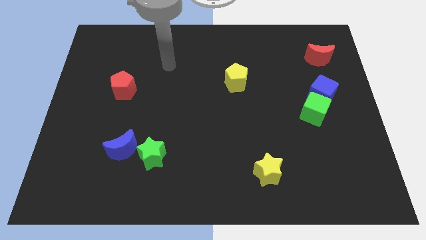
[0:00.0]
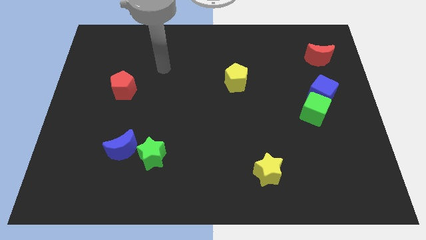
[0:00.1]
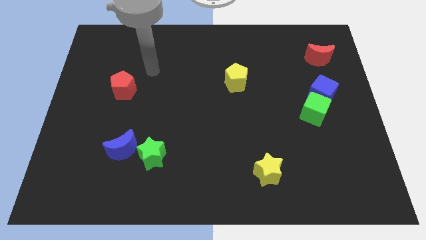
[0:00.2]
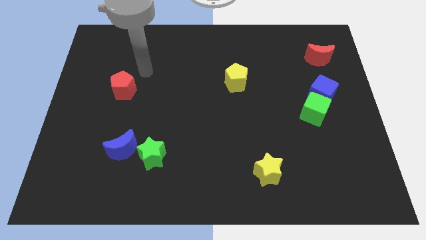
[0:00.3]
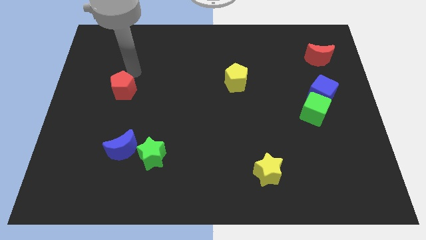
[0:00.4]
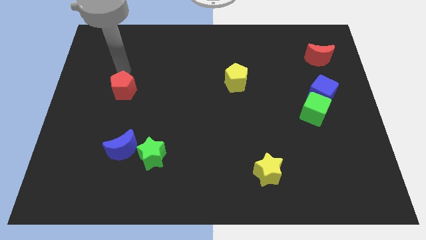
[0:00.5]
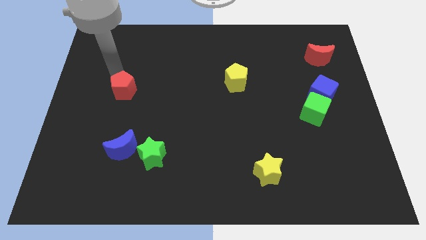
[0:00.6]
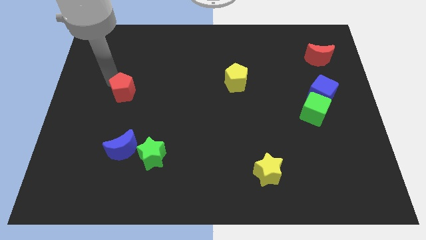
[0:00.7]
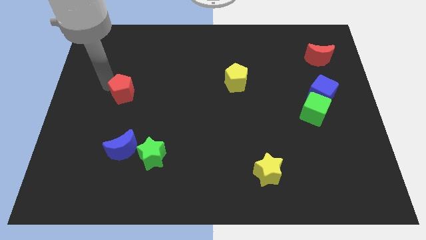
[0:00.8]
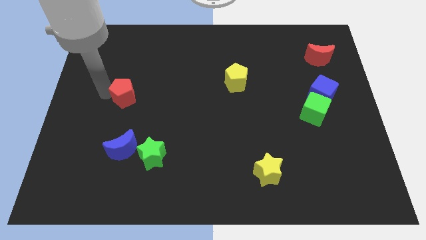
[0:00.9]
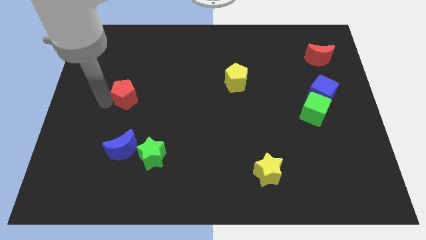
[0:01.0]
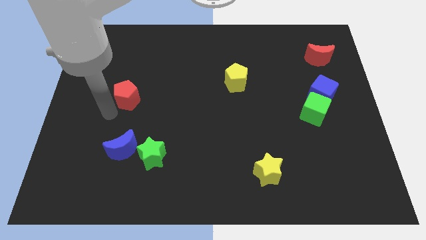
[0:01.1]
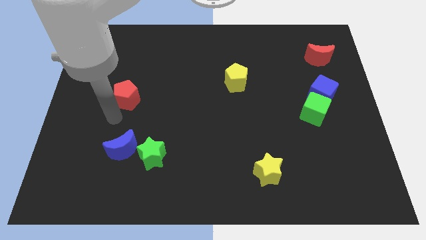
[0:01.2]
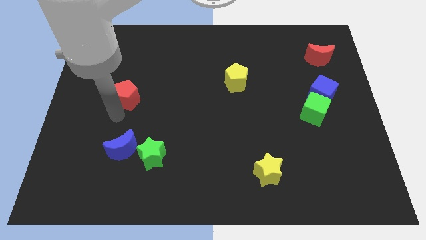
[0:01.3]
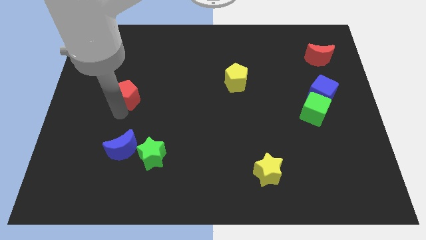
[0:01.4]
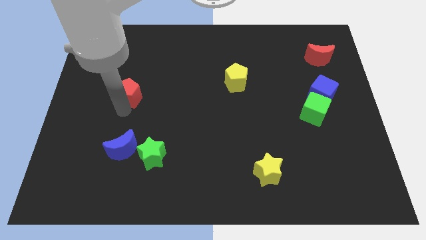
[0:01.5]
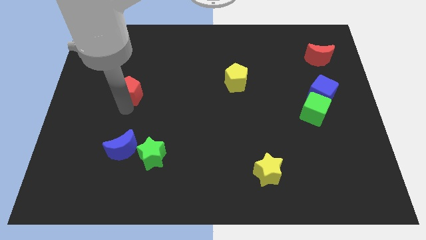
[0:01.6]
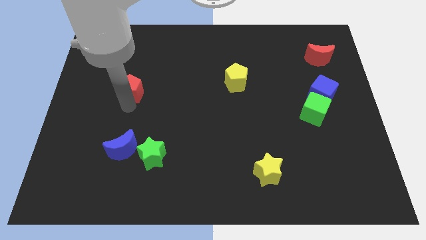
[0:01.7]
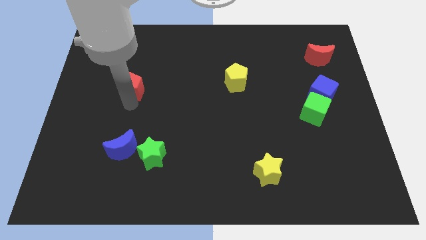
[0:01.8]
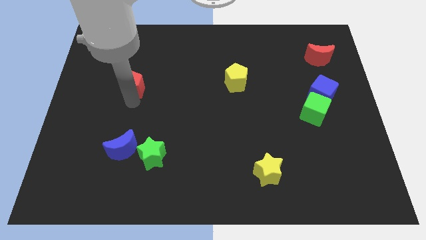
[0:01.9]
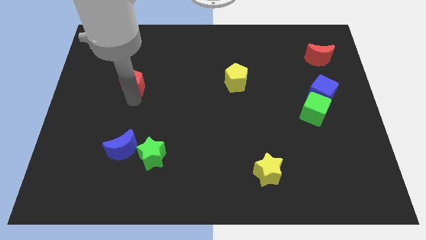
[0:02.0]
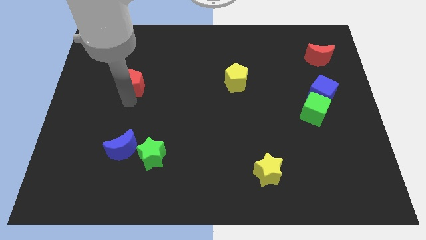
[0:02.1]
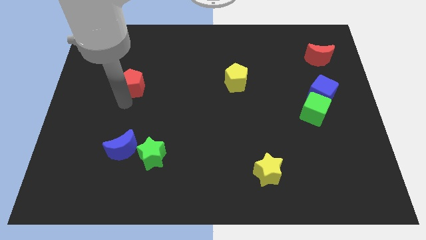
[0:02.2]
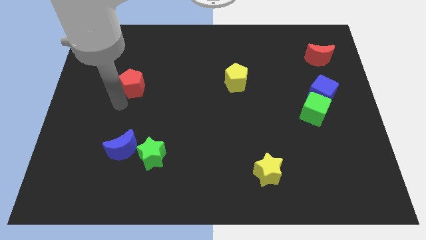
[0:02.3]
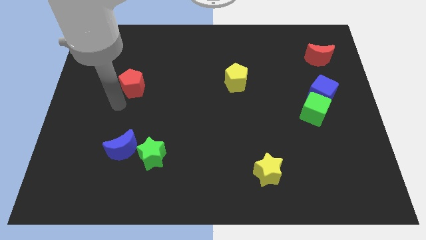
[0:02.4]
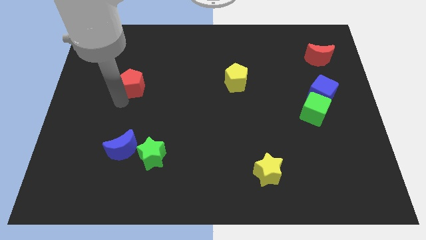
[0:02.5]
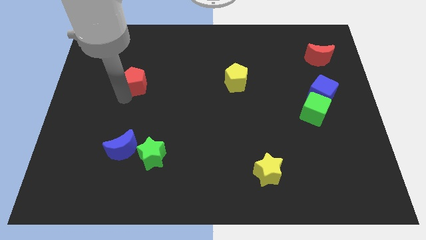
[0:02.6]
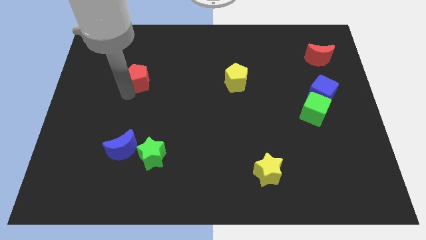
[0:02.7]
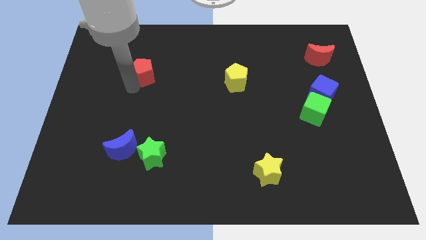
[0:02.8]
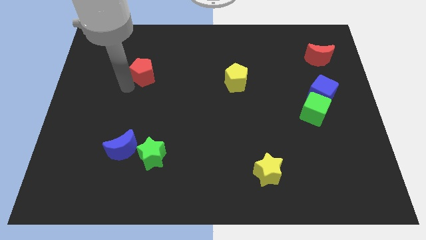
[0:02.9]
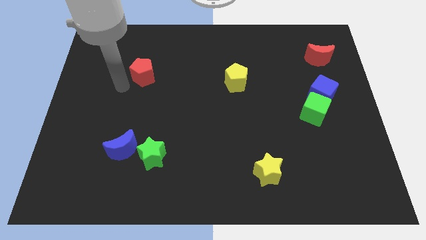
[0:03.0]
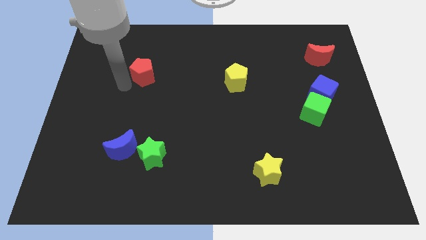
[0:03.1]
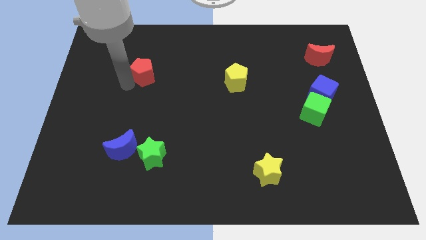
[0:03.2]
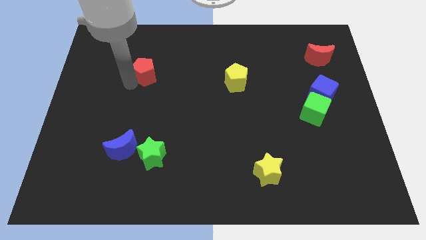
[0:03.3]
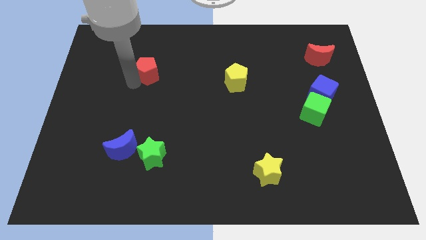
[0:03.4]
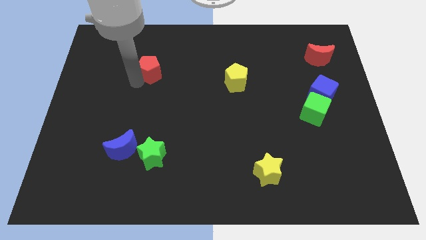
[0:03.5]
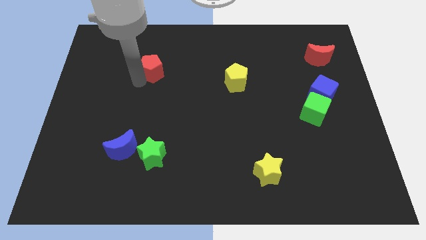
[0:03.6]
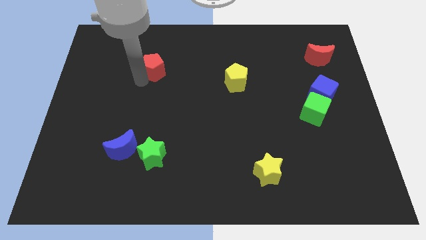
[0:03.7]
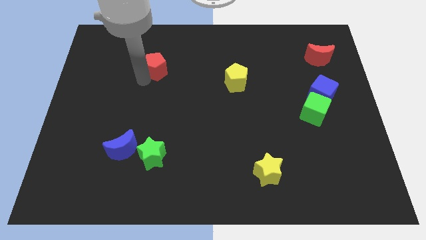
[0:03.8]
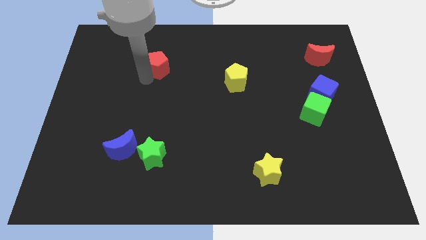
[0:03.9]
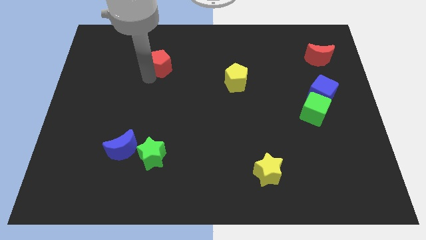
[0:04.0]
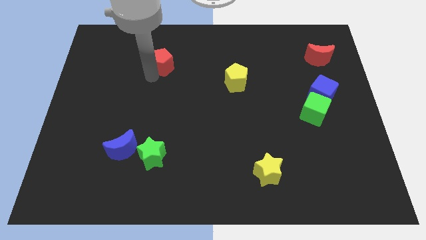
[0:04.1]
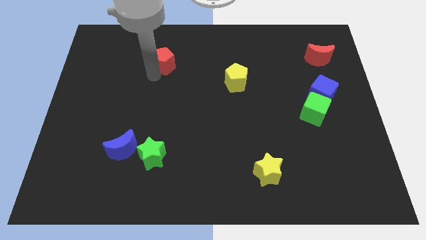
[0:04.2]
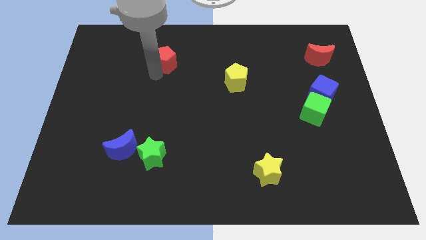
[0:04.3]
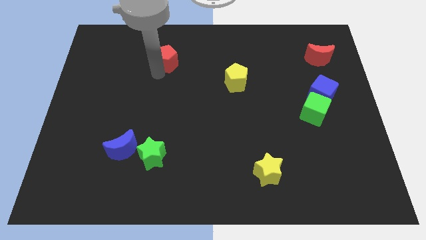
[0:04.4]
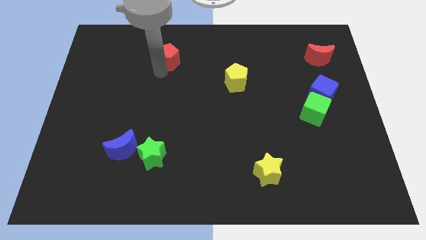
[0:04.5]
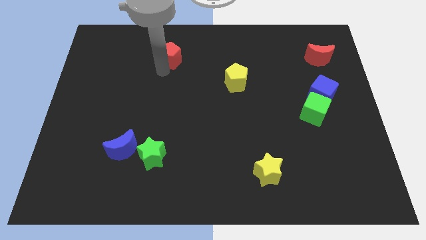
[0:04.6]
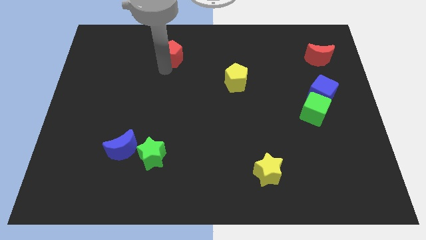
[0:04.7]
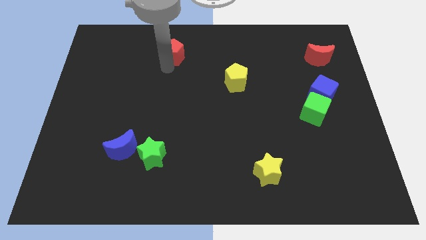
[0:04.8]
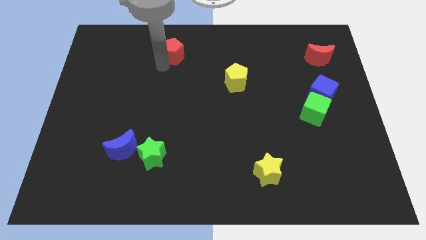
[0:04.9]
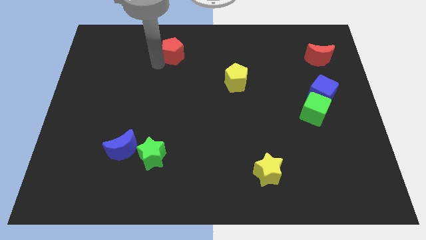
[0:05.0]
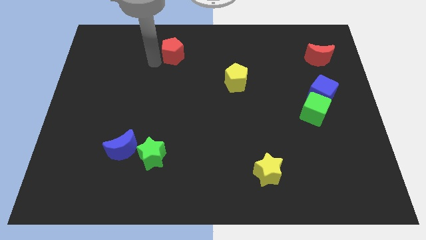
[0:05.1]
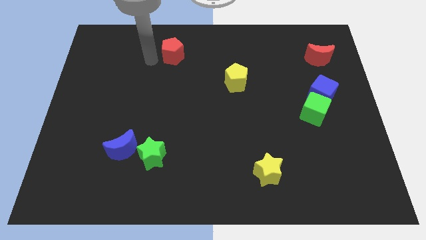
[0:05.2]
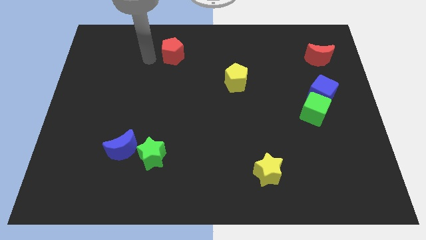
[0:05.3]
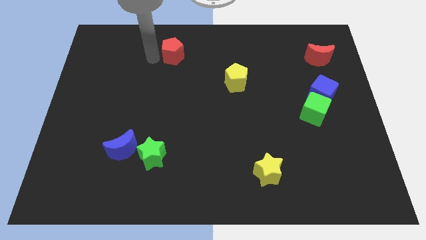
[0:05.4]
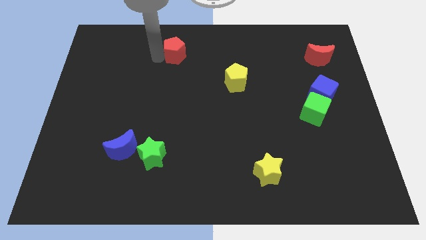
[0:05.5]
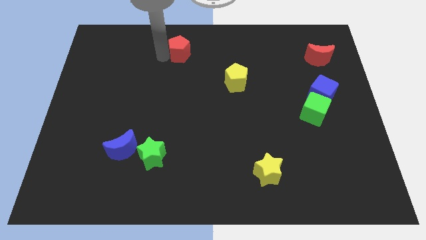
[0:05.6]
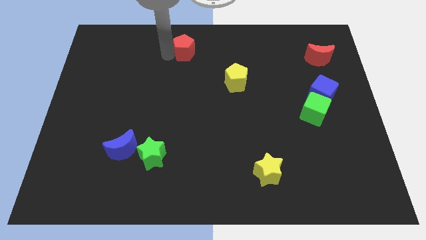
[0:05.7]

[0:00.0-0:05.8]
put the red pentagon to the towards your base

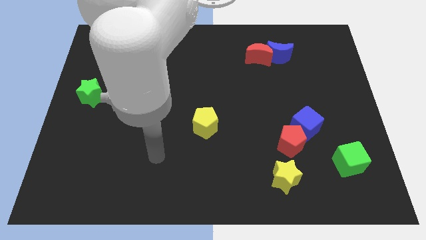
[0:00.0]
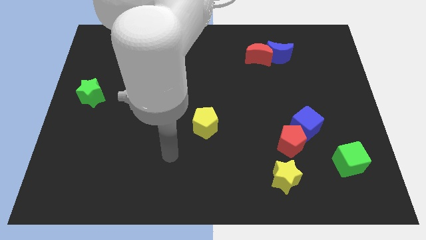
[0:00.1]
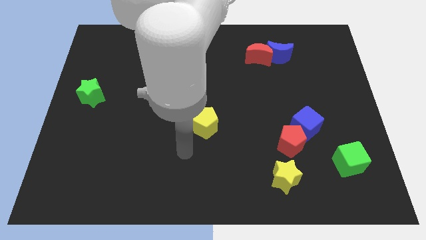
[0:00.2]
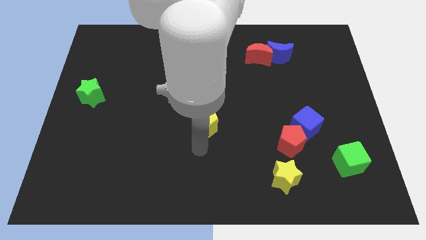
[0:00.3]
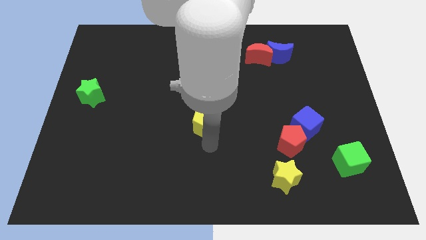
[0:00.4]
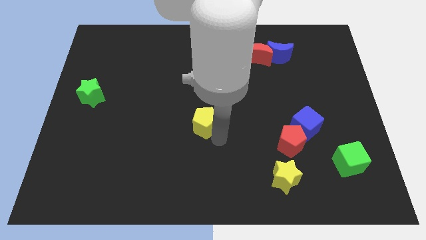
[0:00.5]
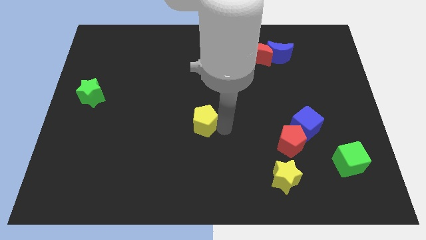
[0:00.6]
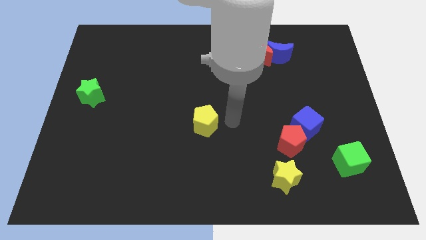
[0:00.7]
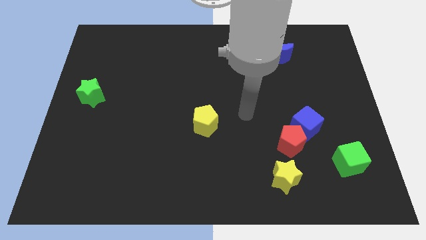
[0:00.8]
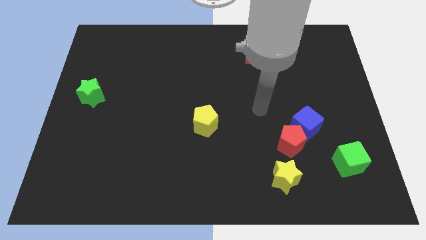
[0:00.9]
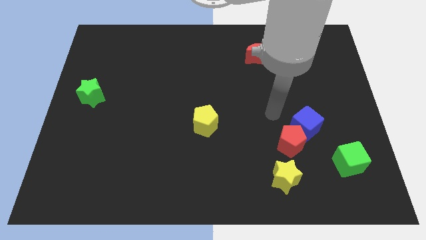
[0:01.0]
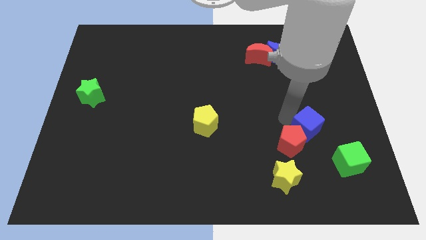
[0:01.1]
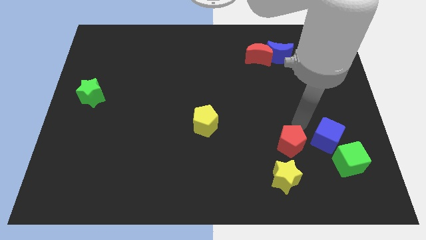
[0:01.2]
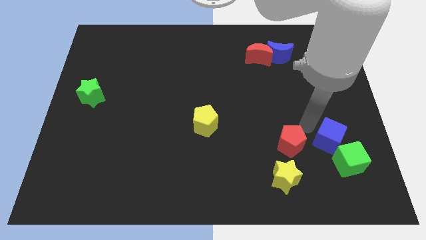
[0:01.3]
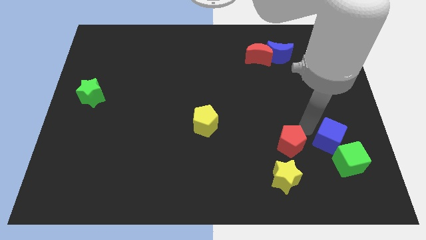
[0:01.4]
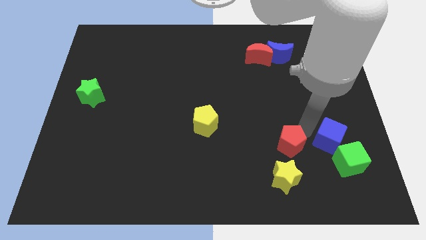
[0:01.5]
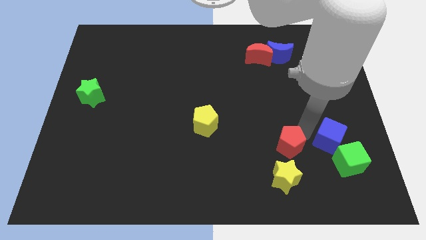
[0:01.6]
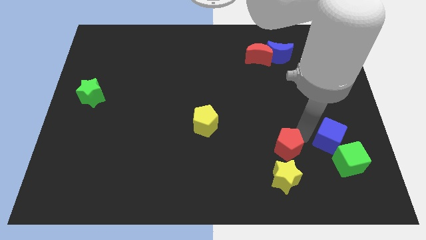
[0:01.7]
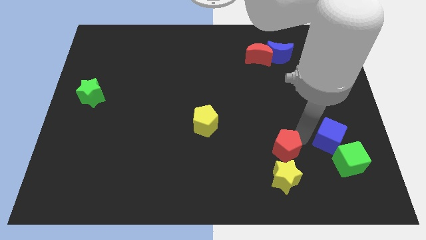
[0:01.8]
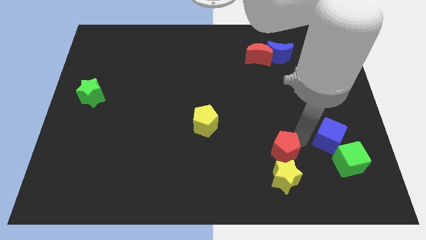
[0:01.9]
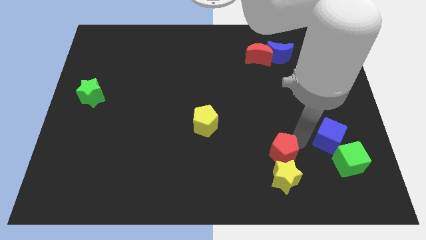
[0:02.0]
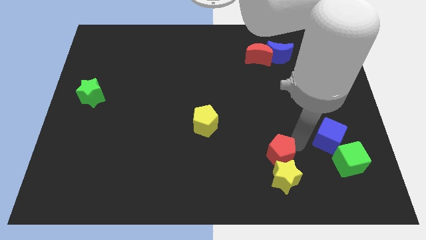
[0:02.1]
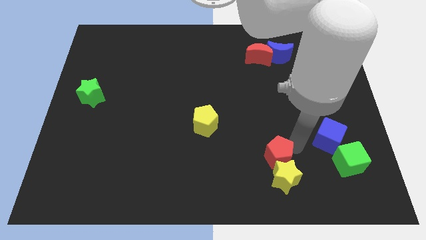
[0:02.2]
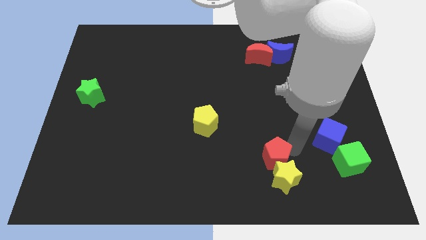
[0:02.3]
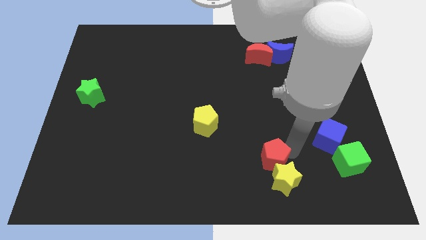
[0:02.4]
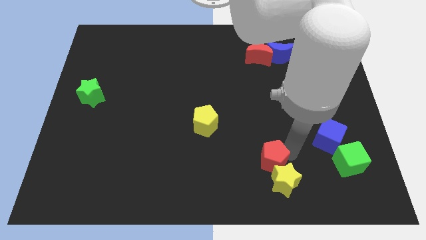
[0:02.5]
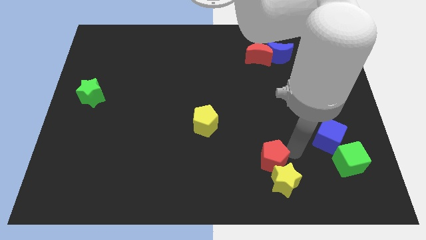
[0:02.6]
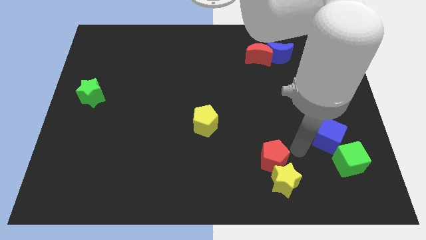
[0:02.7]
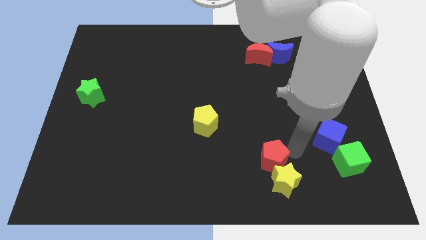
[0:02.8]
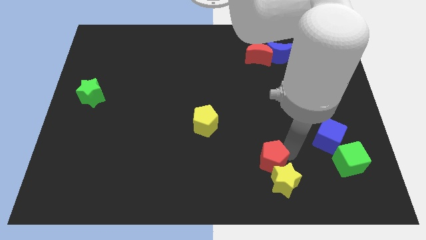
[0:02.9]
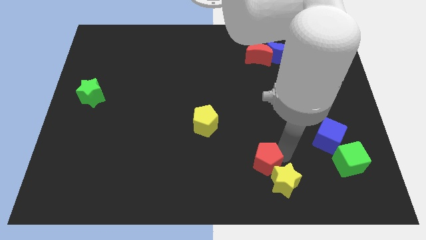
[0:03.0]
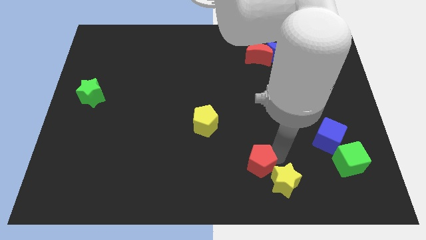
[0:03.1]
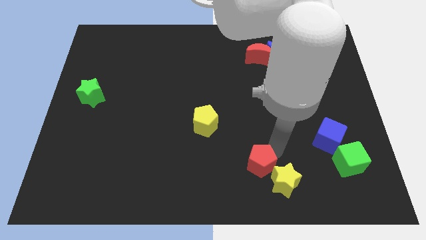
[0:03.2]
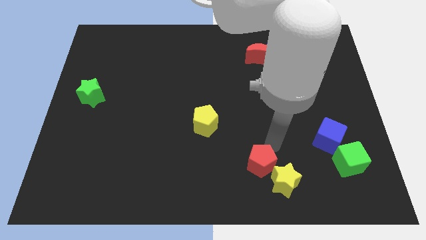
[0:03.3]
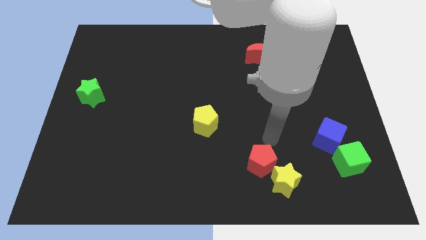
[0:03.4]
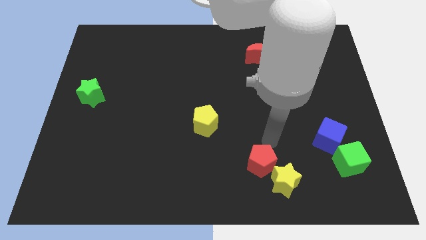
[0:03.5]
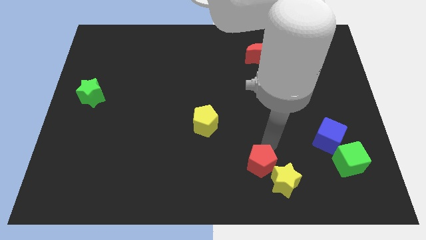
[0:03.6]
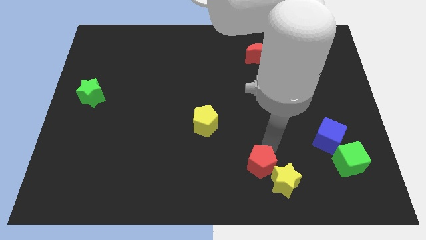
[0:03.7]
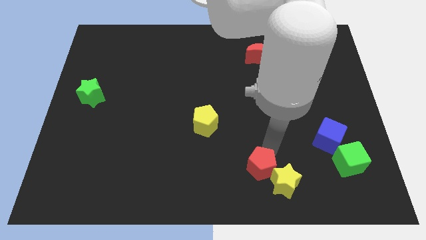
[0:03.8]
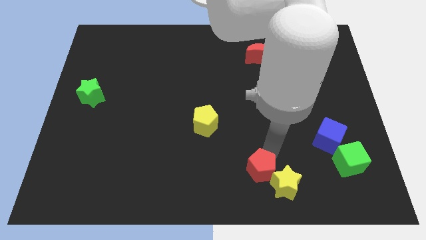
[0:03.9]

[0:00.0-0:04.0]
push the red pentagon to the bottom
